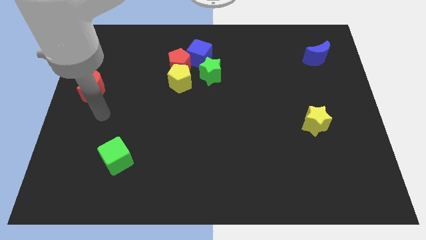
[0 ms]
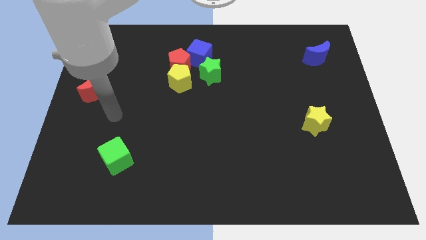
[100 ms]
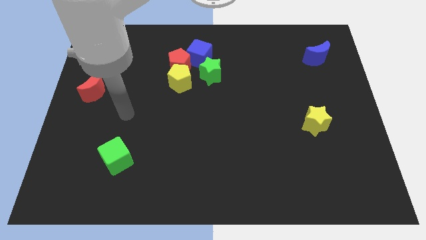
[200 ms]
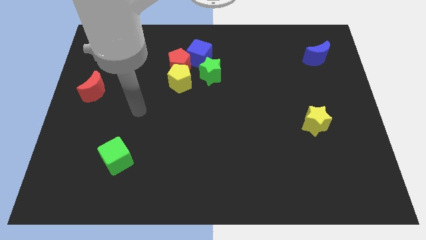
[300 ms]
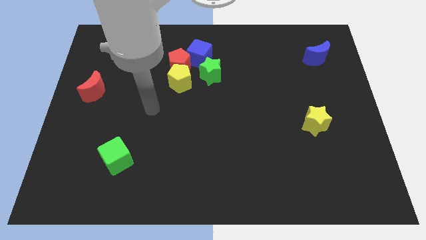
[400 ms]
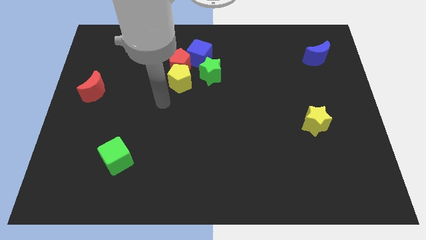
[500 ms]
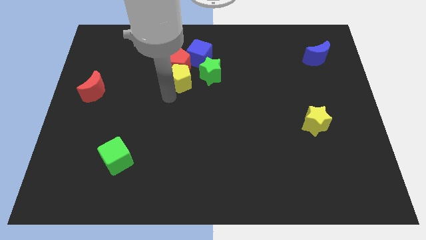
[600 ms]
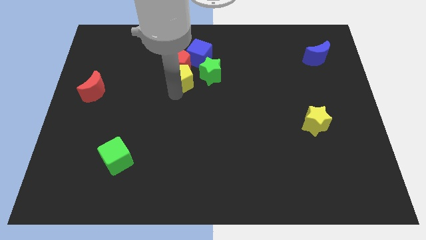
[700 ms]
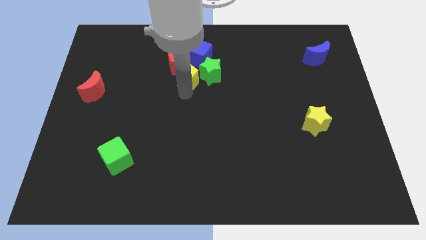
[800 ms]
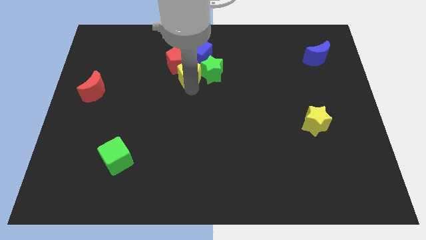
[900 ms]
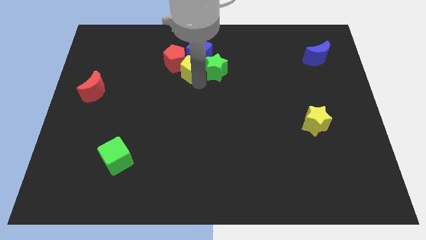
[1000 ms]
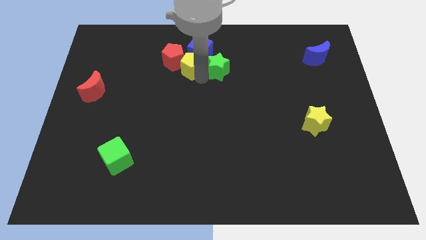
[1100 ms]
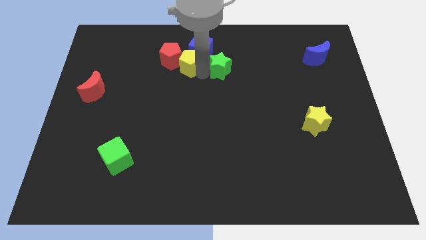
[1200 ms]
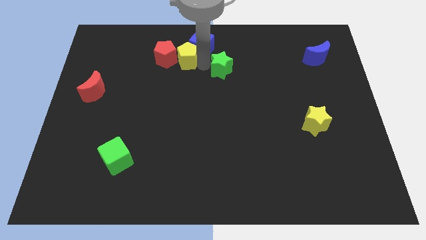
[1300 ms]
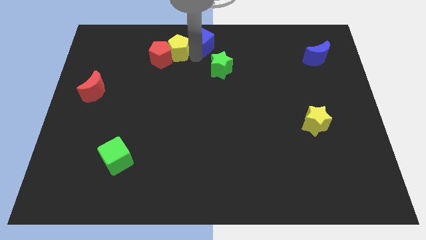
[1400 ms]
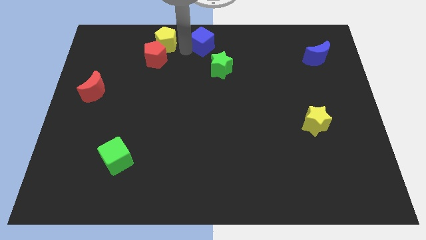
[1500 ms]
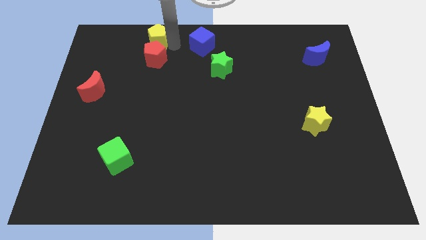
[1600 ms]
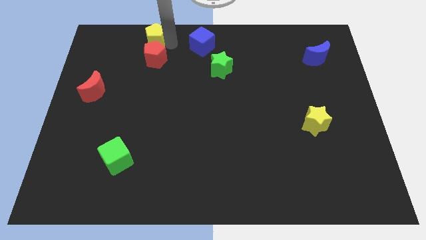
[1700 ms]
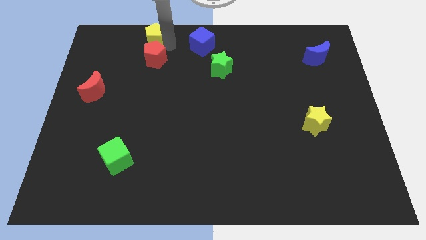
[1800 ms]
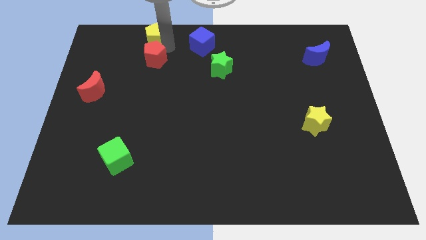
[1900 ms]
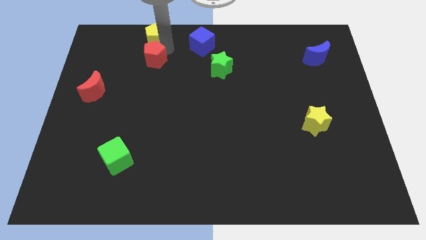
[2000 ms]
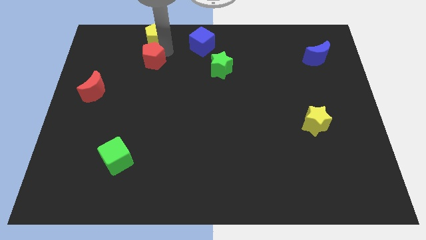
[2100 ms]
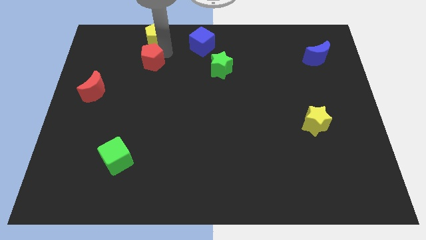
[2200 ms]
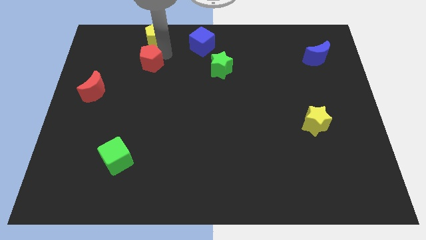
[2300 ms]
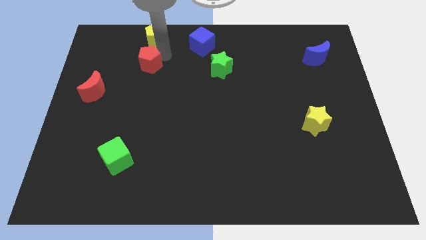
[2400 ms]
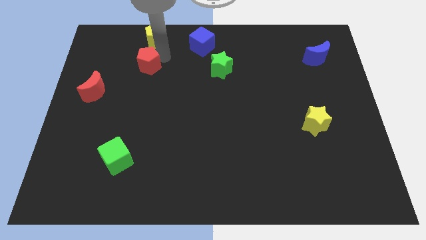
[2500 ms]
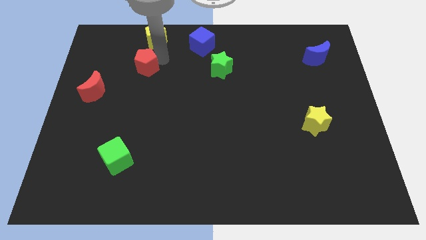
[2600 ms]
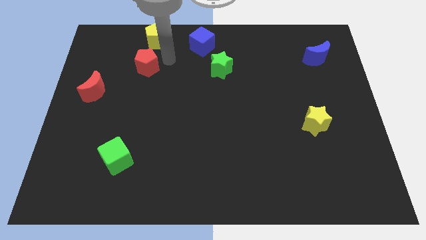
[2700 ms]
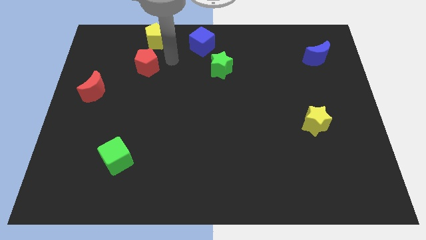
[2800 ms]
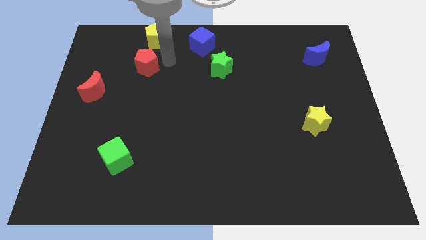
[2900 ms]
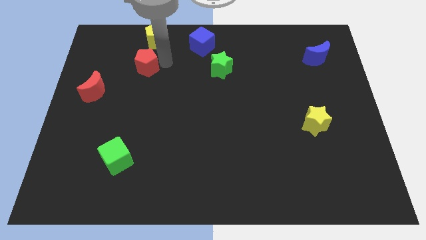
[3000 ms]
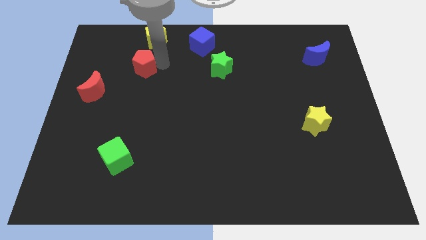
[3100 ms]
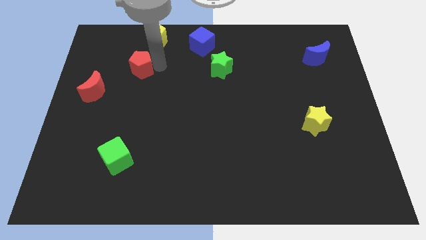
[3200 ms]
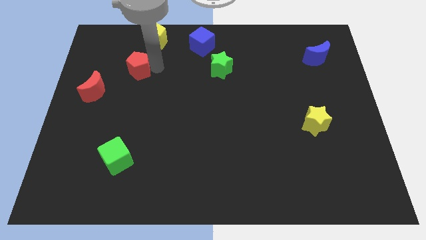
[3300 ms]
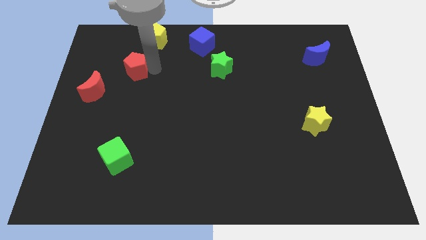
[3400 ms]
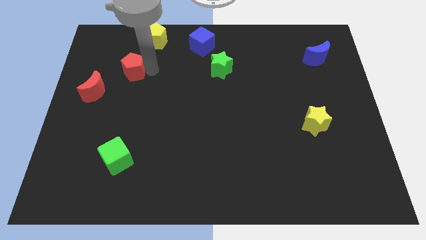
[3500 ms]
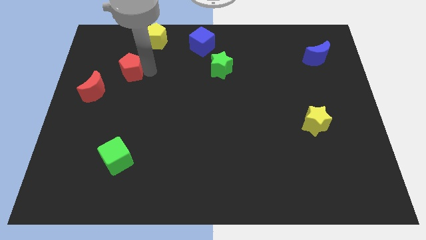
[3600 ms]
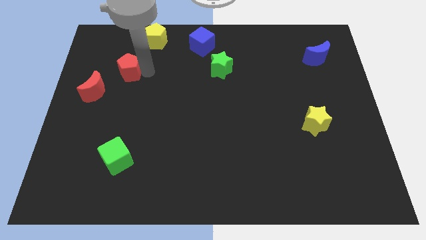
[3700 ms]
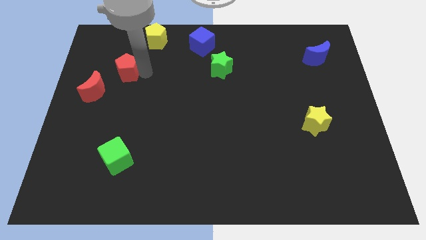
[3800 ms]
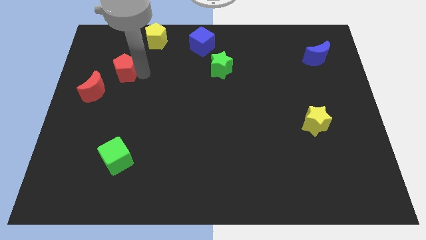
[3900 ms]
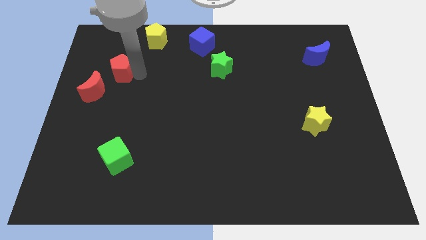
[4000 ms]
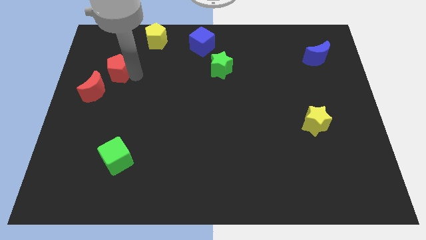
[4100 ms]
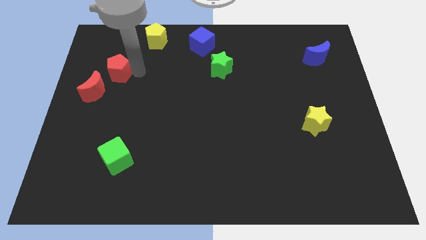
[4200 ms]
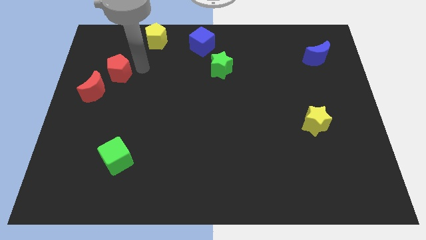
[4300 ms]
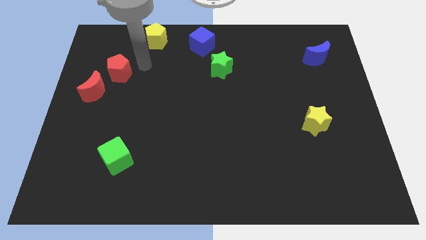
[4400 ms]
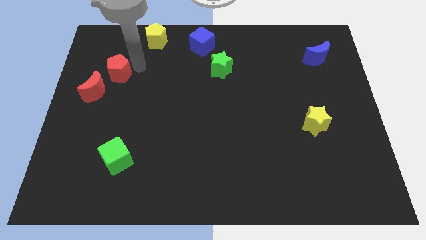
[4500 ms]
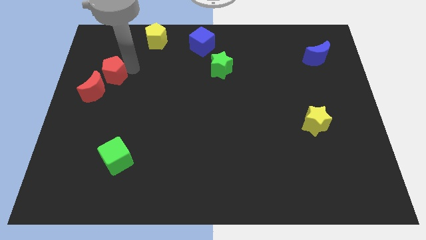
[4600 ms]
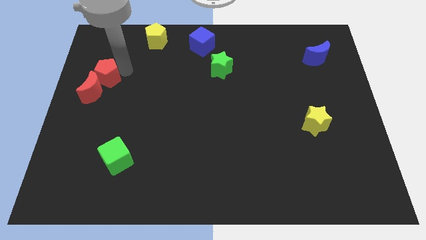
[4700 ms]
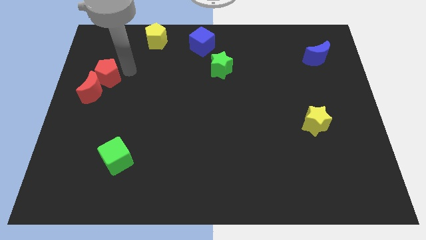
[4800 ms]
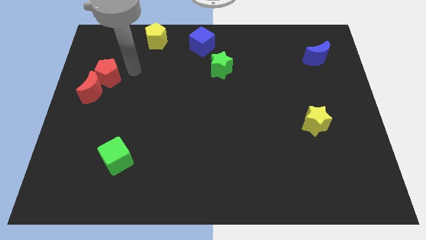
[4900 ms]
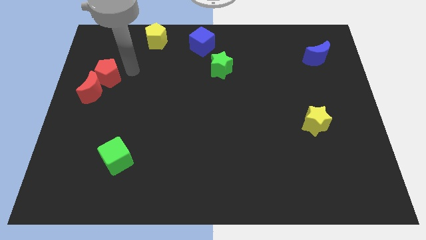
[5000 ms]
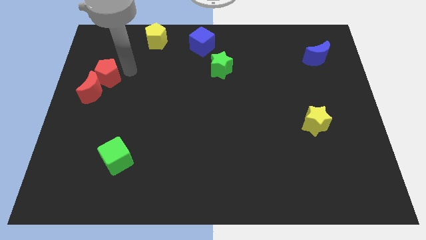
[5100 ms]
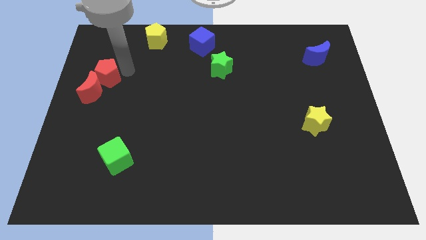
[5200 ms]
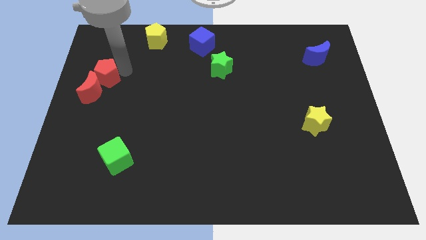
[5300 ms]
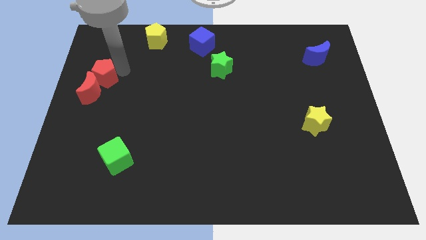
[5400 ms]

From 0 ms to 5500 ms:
push the red pentagon to the left side of the board

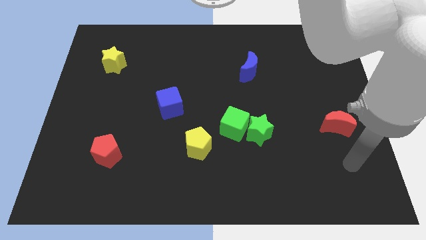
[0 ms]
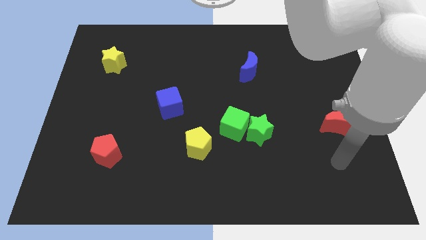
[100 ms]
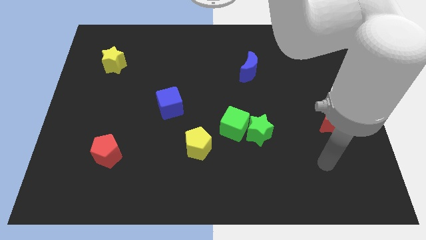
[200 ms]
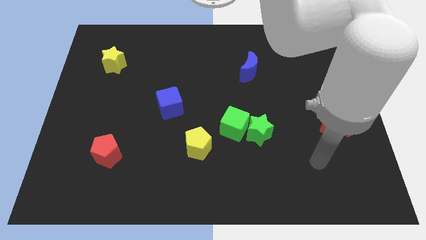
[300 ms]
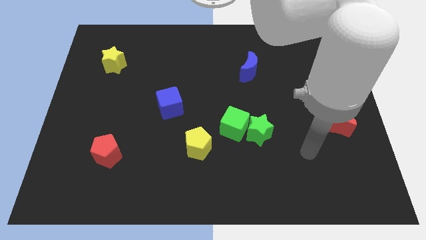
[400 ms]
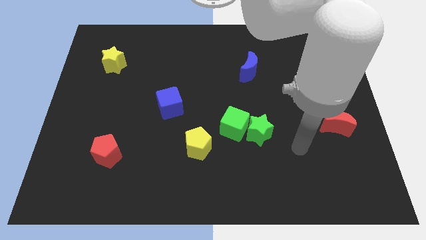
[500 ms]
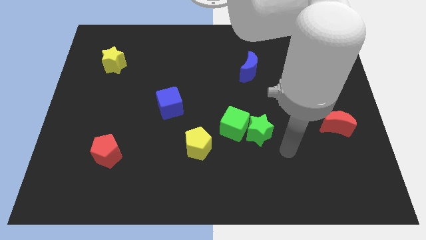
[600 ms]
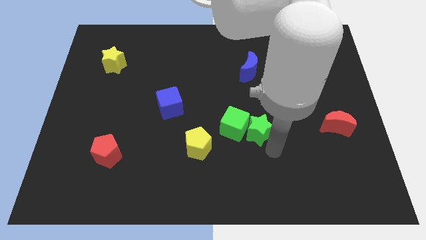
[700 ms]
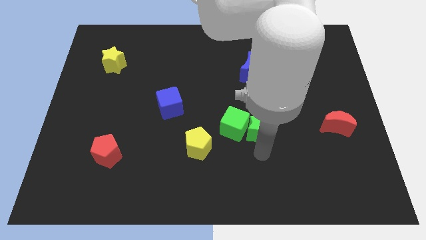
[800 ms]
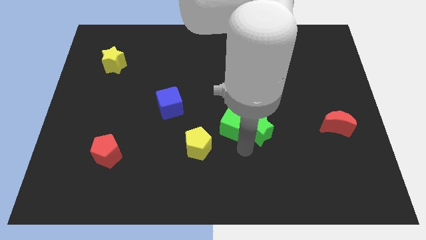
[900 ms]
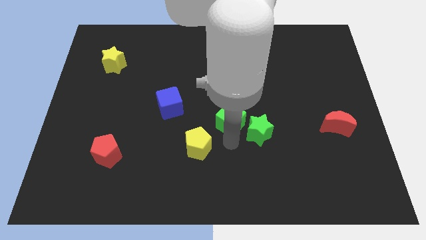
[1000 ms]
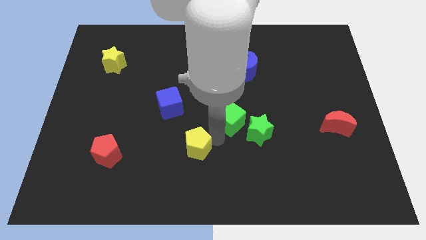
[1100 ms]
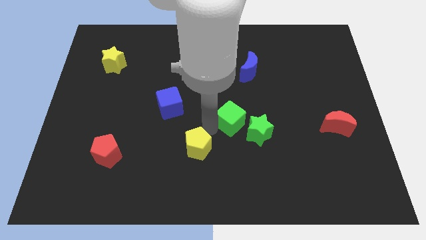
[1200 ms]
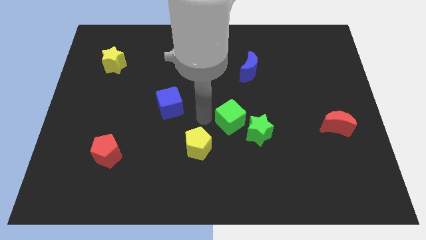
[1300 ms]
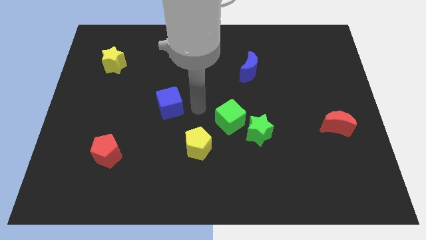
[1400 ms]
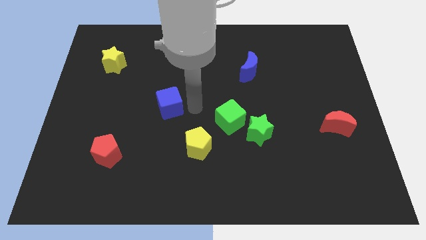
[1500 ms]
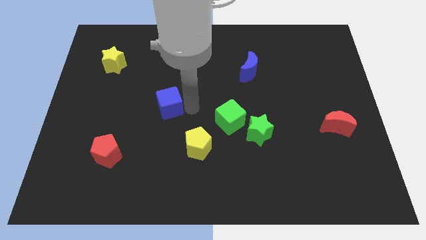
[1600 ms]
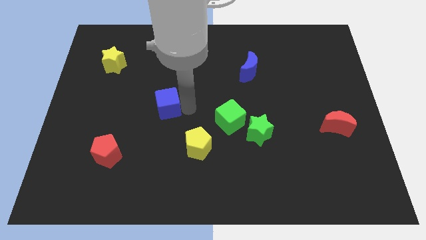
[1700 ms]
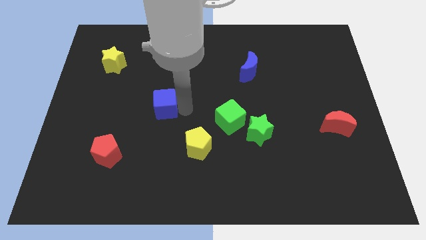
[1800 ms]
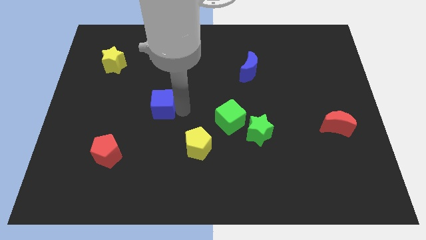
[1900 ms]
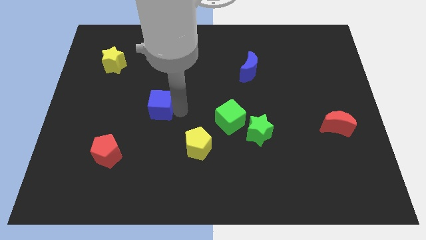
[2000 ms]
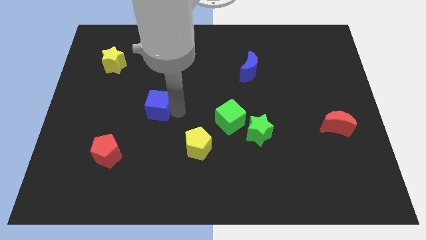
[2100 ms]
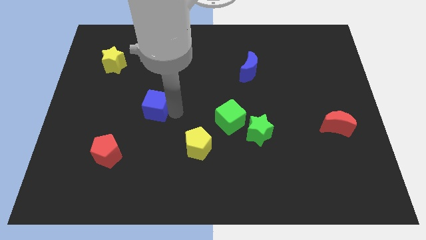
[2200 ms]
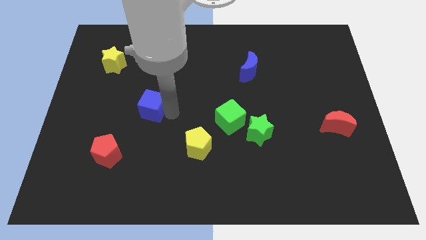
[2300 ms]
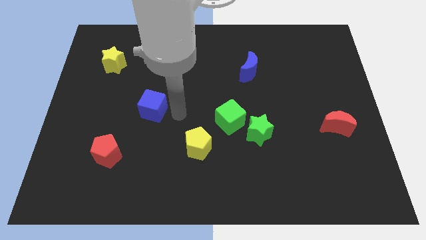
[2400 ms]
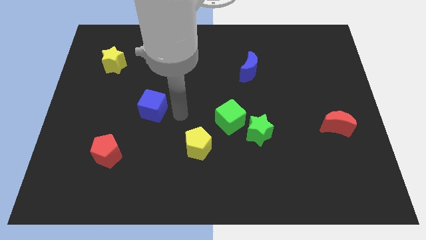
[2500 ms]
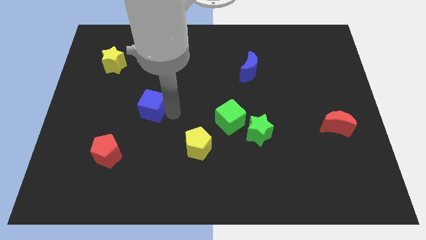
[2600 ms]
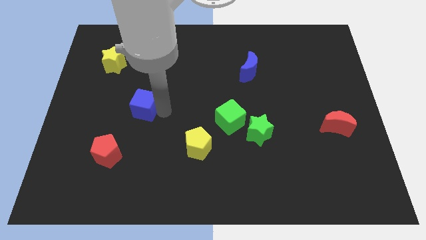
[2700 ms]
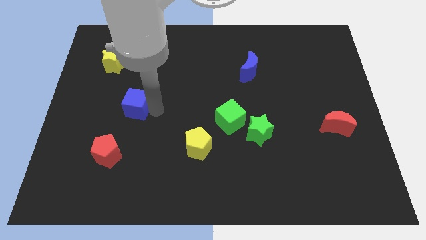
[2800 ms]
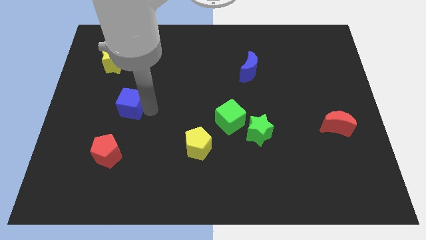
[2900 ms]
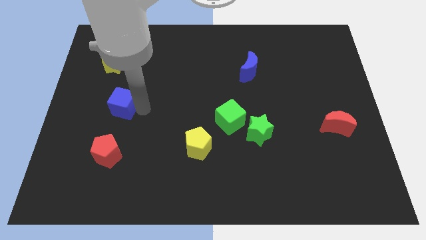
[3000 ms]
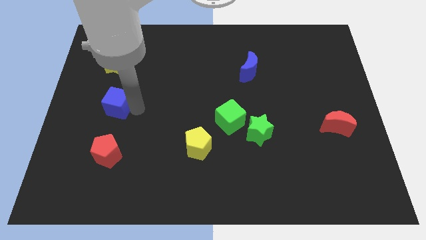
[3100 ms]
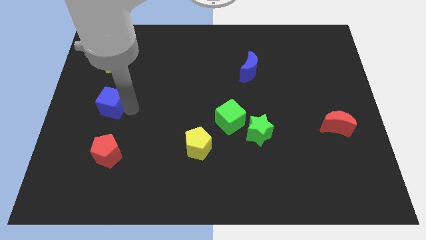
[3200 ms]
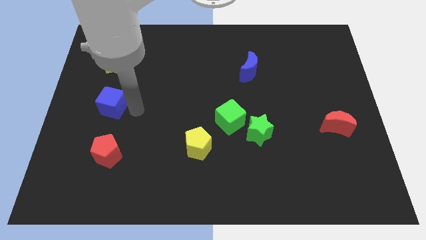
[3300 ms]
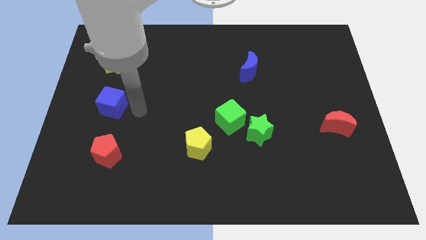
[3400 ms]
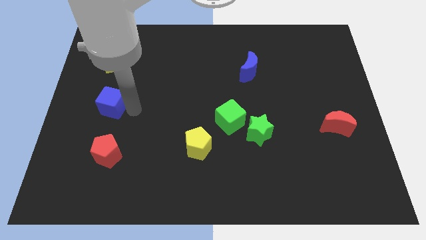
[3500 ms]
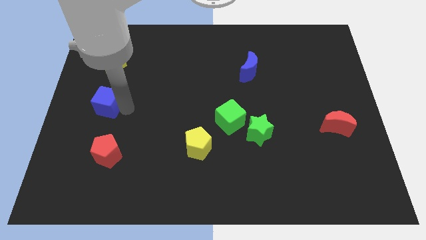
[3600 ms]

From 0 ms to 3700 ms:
put the blue cube to the left side
